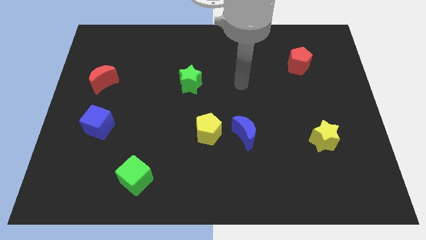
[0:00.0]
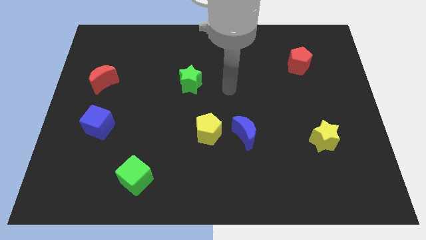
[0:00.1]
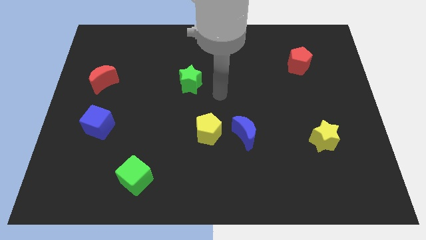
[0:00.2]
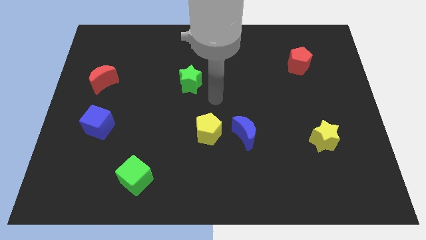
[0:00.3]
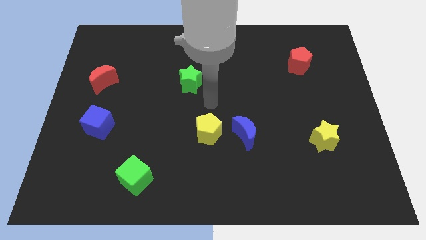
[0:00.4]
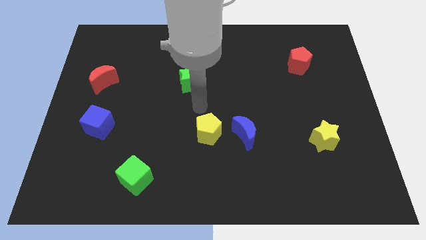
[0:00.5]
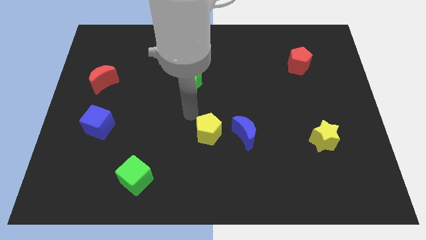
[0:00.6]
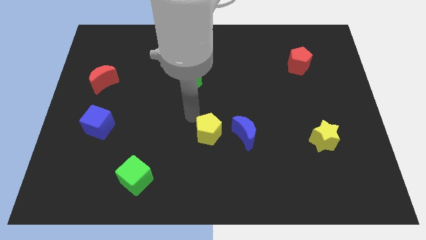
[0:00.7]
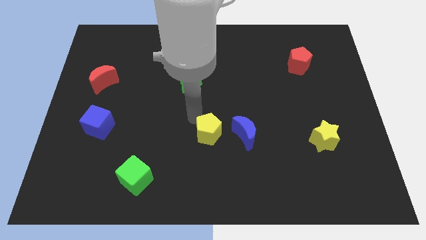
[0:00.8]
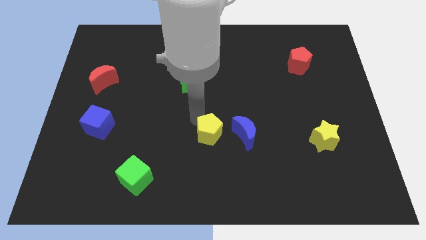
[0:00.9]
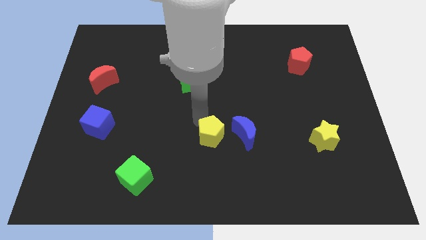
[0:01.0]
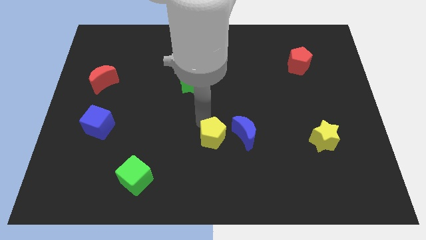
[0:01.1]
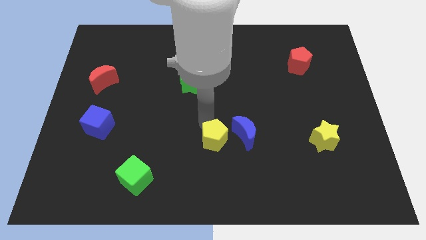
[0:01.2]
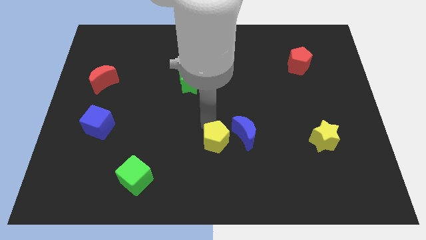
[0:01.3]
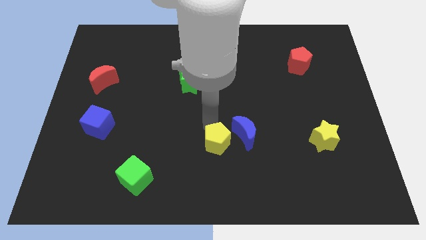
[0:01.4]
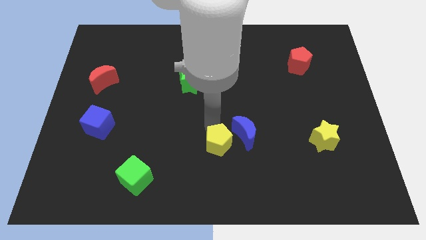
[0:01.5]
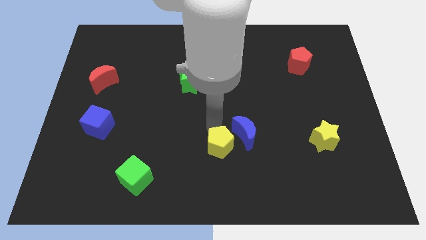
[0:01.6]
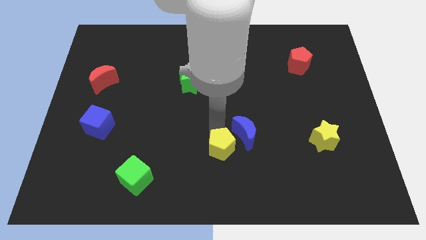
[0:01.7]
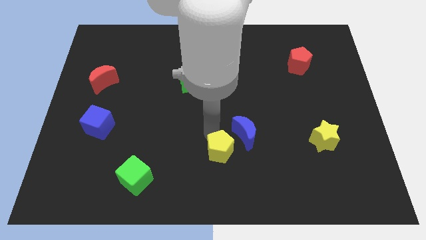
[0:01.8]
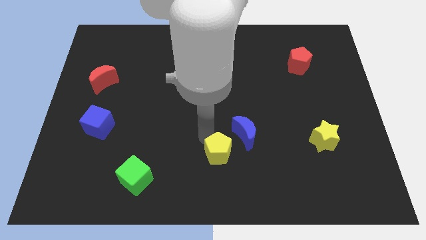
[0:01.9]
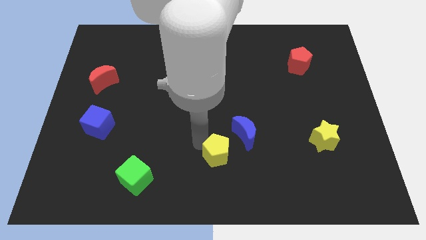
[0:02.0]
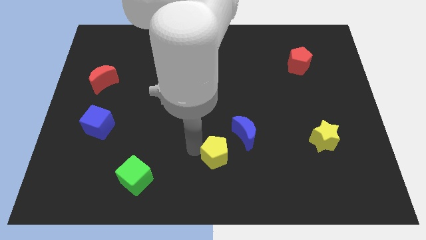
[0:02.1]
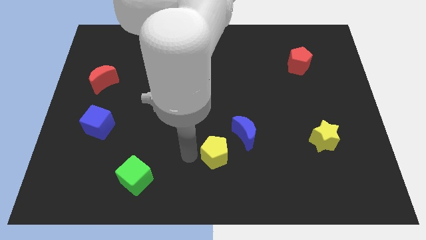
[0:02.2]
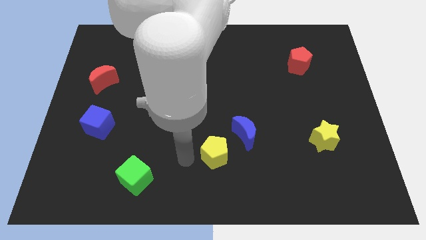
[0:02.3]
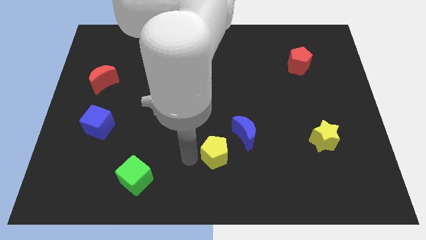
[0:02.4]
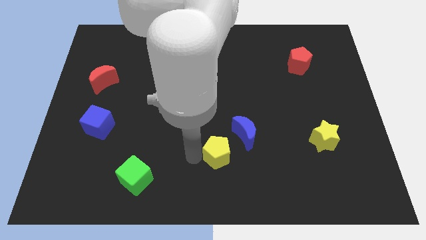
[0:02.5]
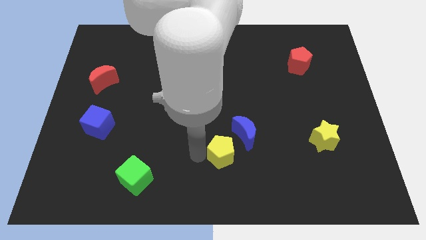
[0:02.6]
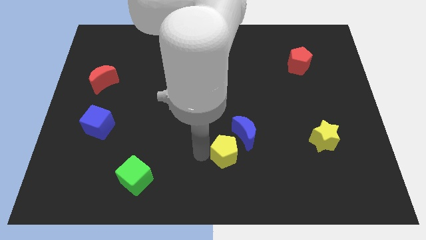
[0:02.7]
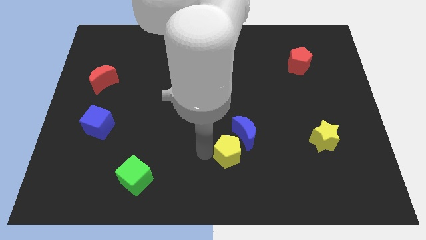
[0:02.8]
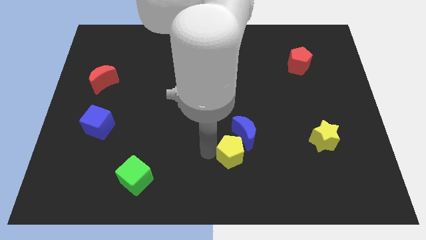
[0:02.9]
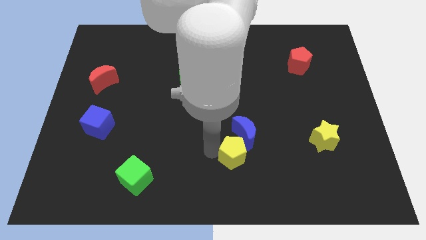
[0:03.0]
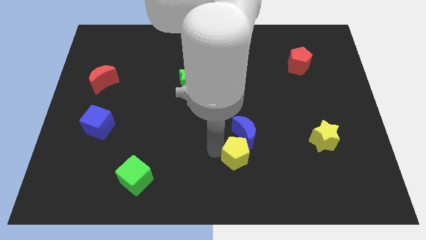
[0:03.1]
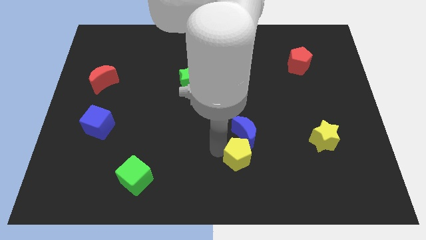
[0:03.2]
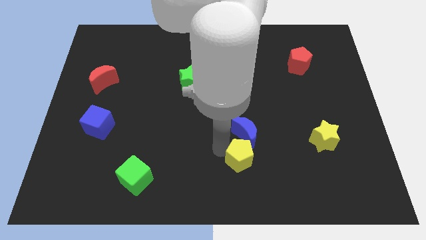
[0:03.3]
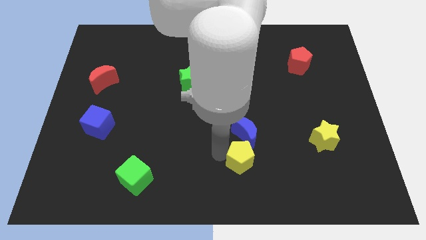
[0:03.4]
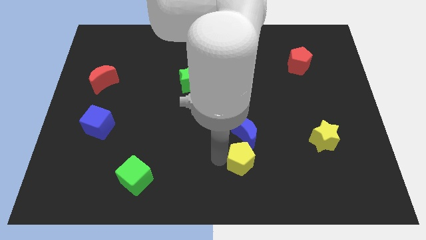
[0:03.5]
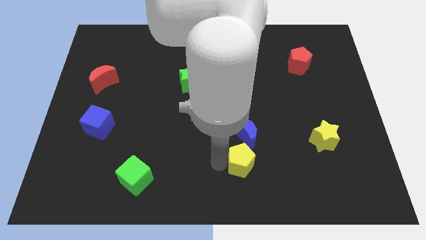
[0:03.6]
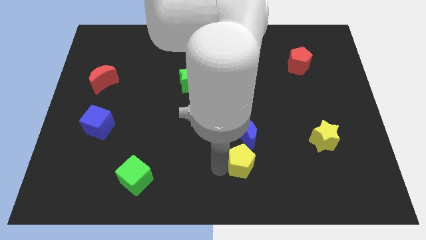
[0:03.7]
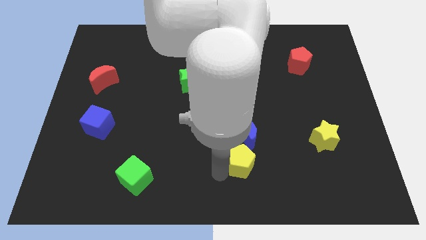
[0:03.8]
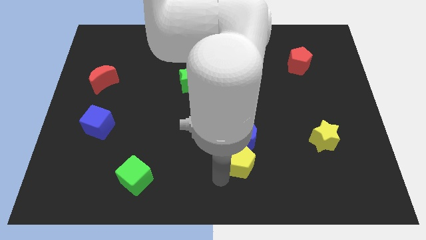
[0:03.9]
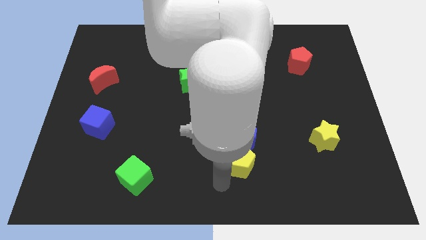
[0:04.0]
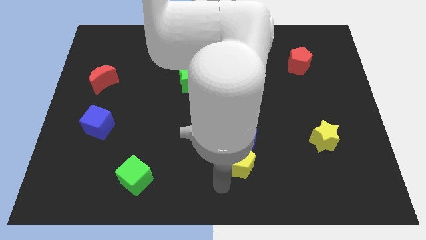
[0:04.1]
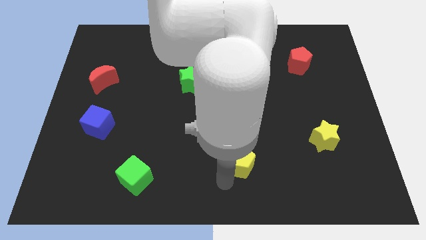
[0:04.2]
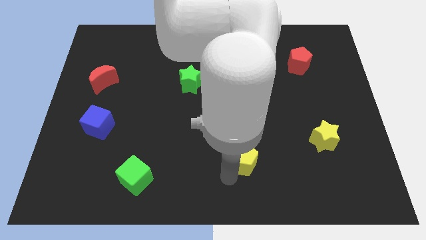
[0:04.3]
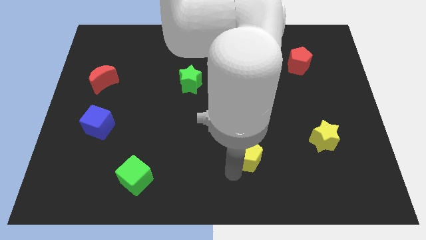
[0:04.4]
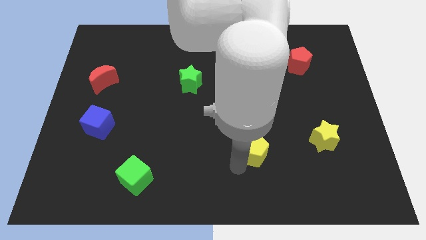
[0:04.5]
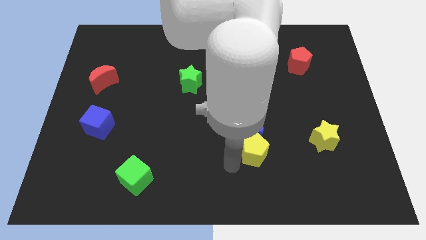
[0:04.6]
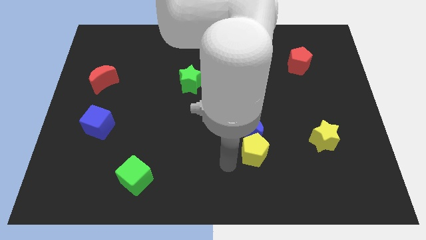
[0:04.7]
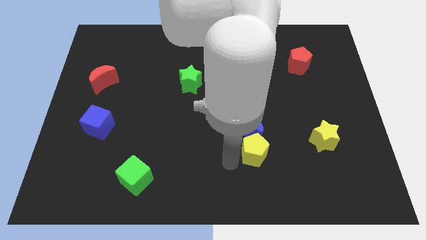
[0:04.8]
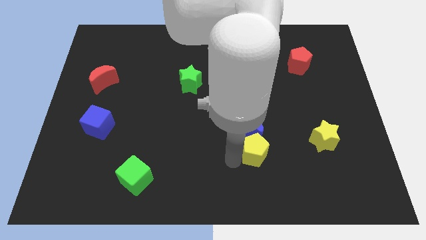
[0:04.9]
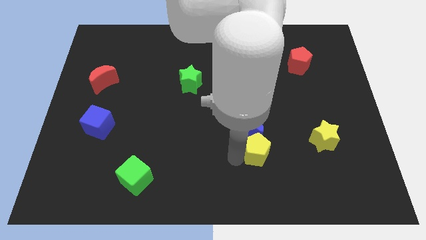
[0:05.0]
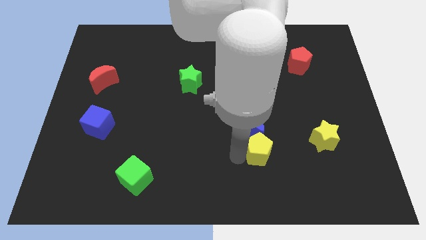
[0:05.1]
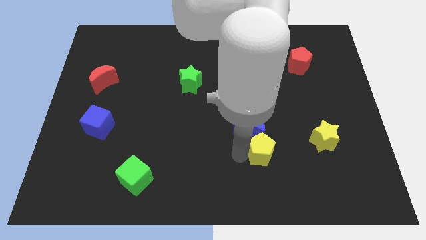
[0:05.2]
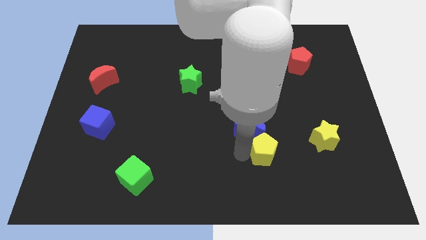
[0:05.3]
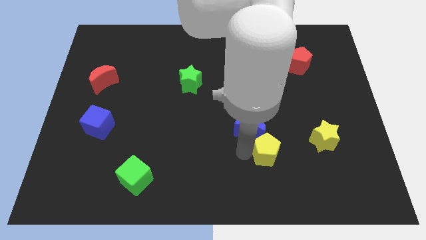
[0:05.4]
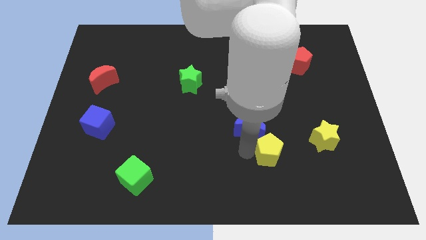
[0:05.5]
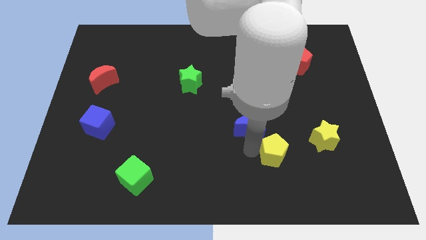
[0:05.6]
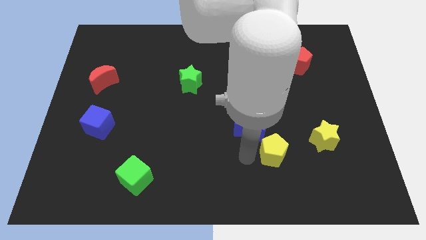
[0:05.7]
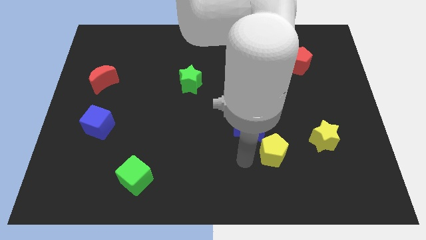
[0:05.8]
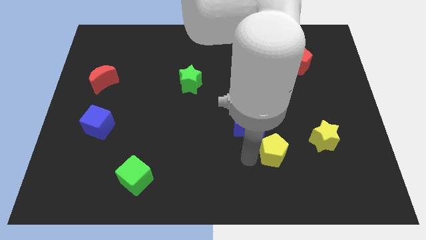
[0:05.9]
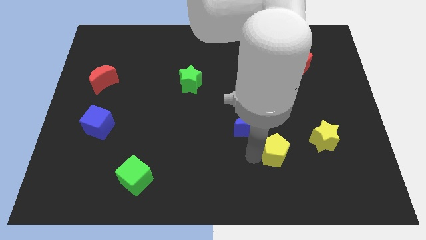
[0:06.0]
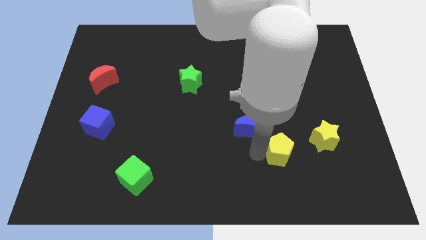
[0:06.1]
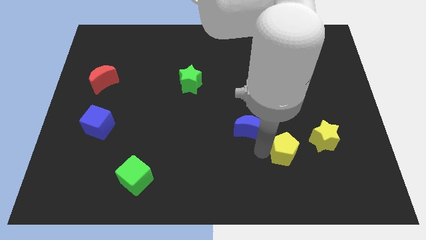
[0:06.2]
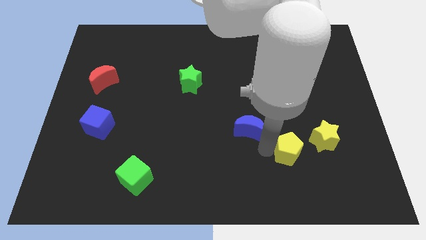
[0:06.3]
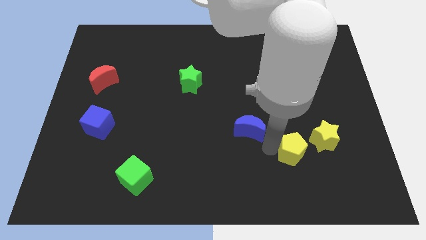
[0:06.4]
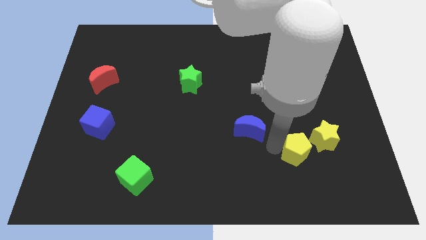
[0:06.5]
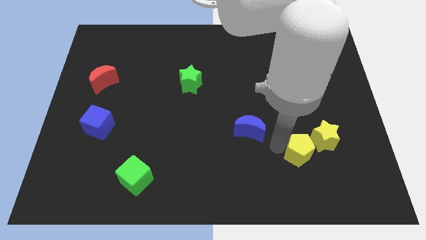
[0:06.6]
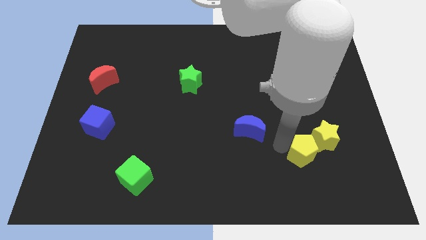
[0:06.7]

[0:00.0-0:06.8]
move the yellow pentagon next to the yellow star

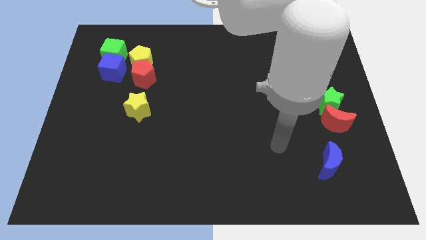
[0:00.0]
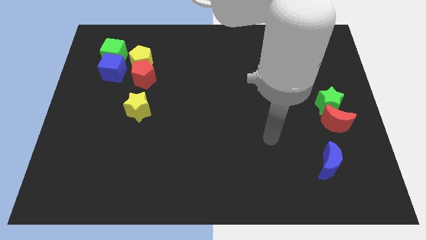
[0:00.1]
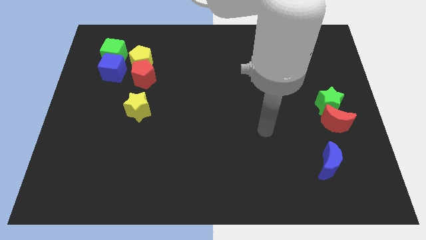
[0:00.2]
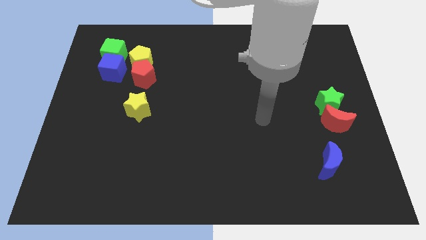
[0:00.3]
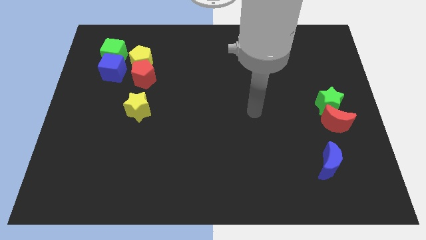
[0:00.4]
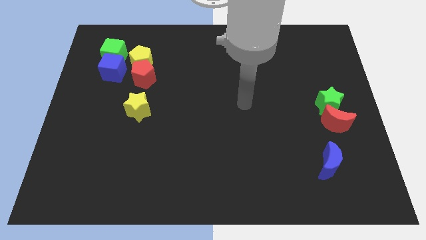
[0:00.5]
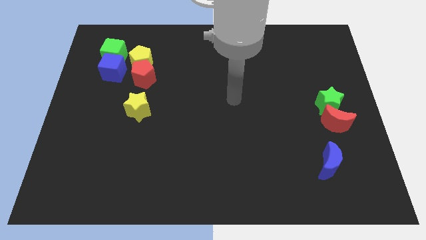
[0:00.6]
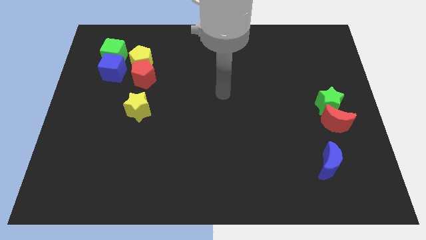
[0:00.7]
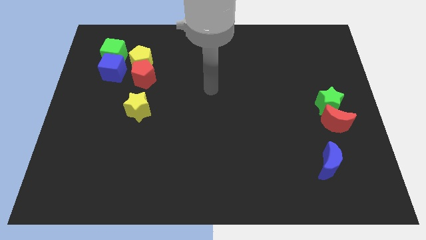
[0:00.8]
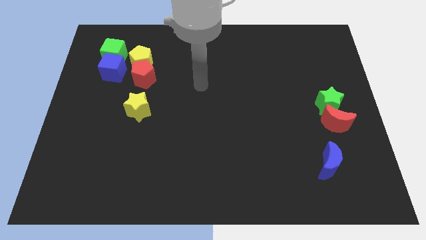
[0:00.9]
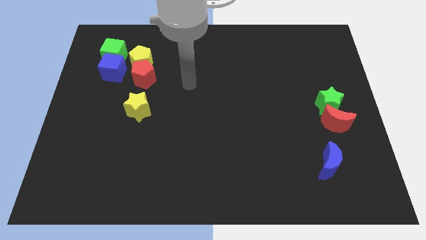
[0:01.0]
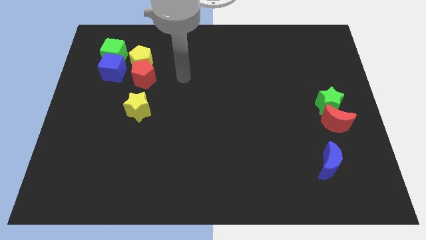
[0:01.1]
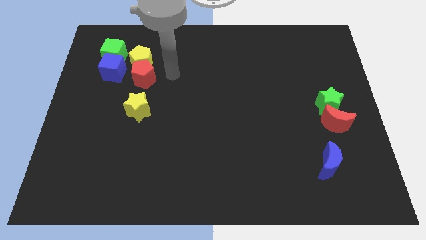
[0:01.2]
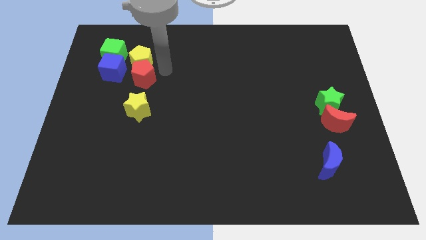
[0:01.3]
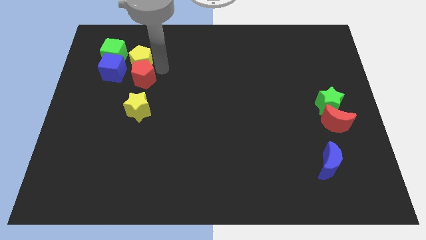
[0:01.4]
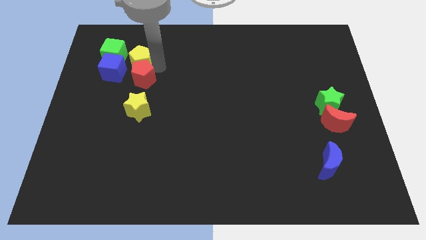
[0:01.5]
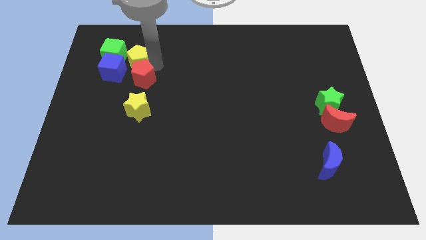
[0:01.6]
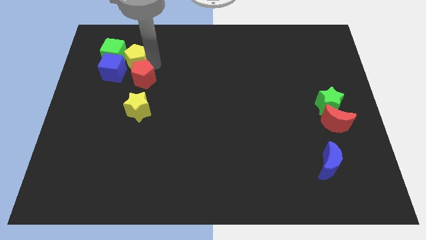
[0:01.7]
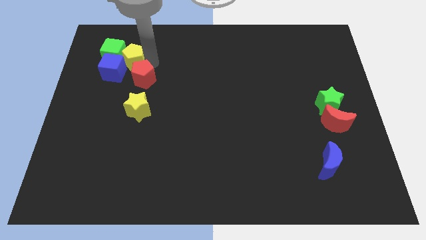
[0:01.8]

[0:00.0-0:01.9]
move the yellow pentagon to the green cube
